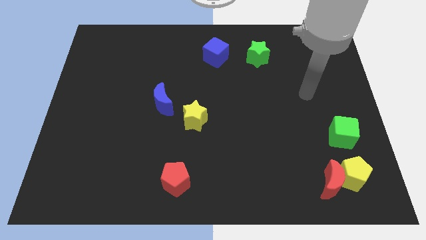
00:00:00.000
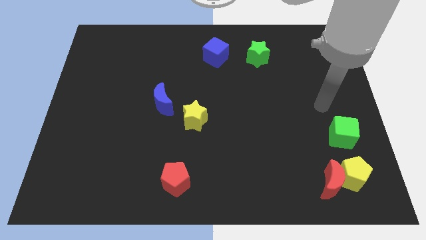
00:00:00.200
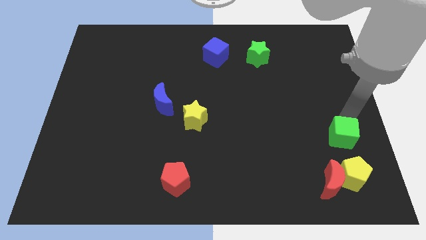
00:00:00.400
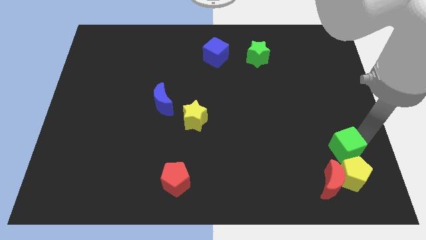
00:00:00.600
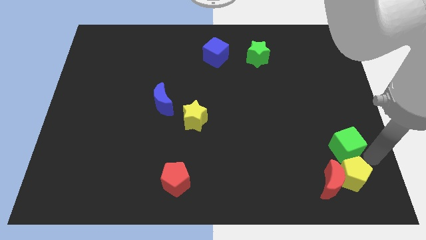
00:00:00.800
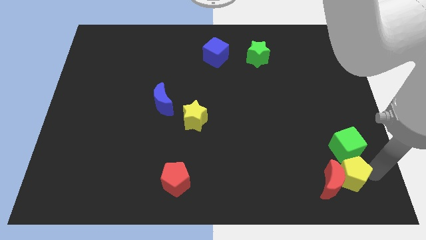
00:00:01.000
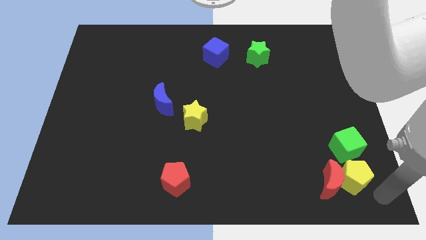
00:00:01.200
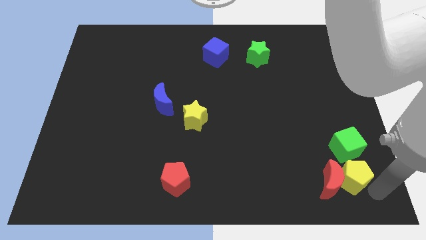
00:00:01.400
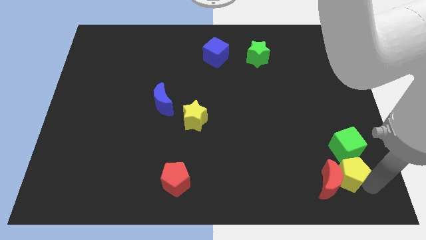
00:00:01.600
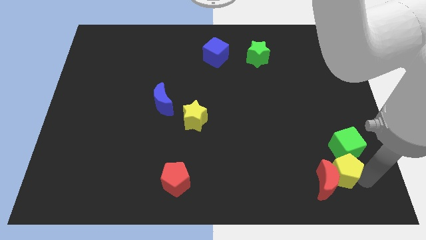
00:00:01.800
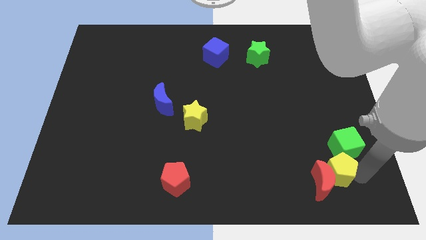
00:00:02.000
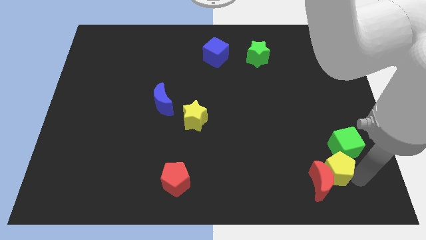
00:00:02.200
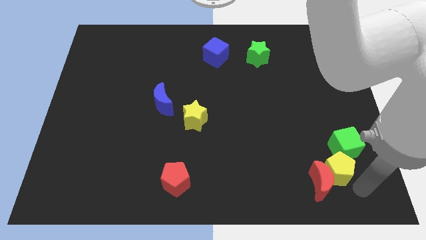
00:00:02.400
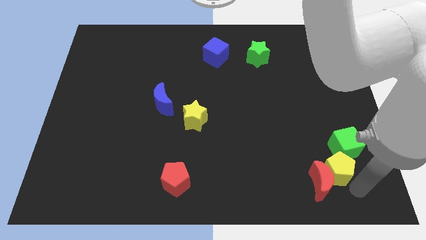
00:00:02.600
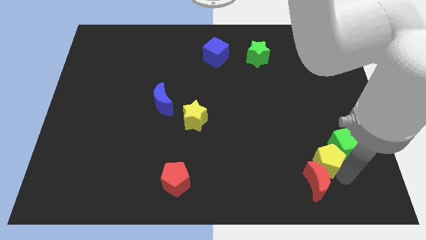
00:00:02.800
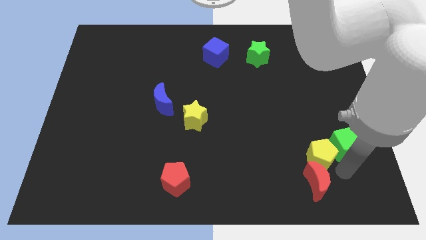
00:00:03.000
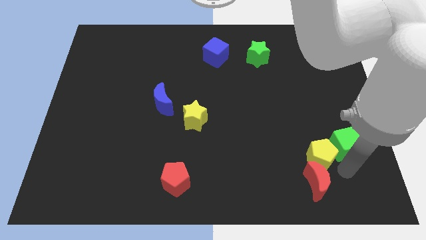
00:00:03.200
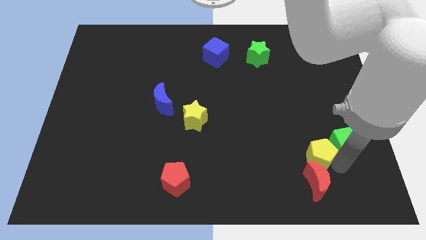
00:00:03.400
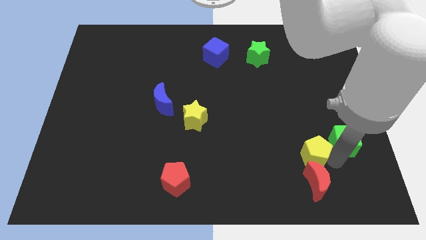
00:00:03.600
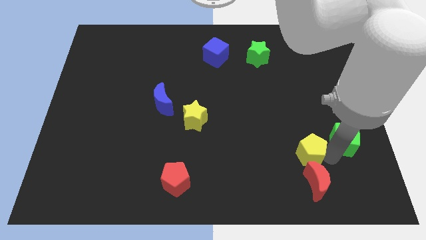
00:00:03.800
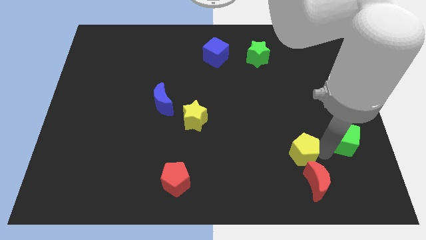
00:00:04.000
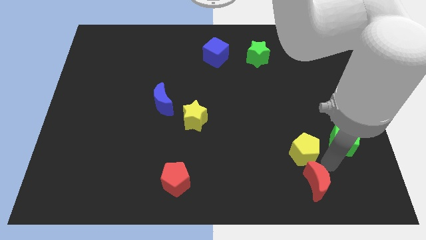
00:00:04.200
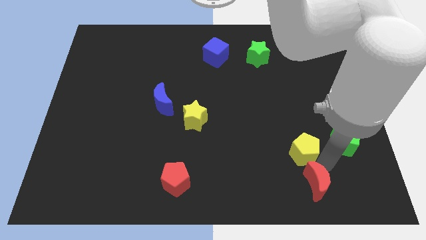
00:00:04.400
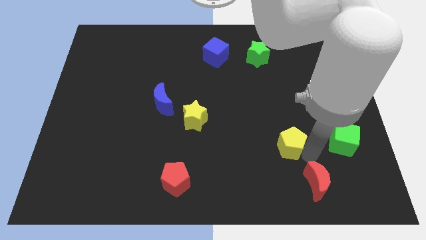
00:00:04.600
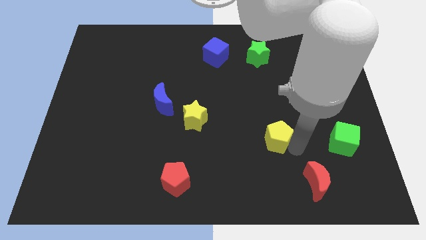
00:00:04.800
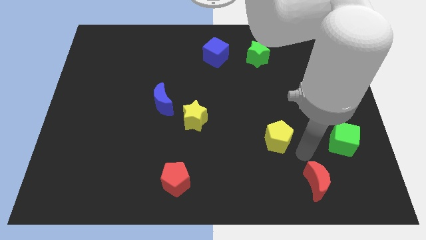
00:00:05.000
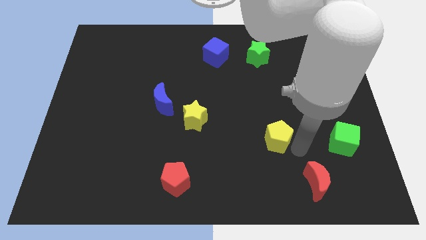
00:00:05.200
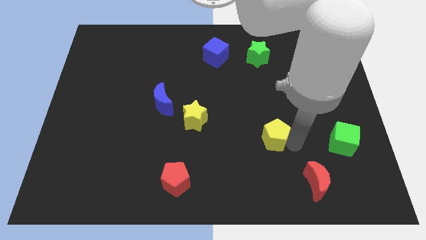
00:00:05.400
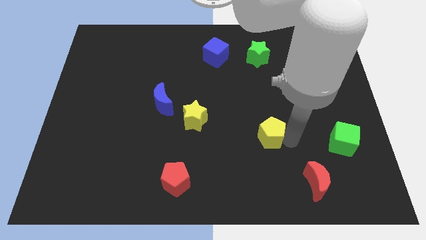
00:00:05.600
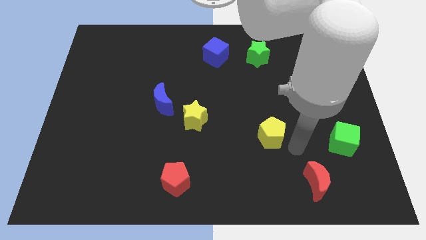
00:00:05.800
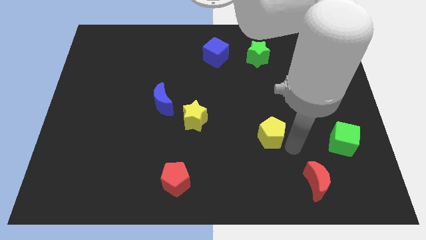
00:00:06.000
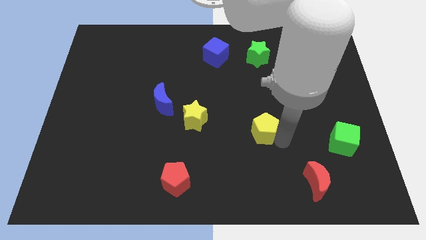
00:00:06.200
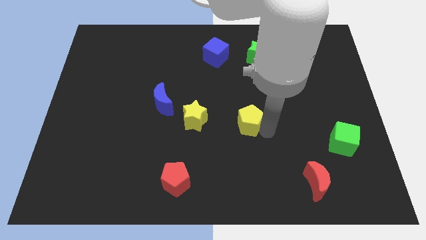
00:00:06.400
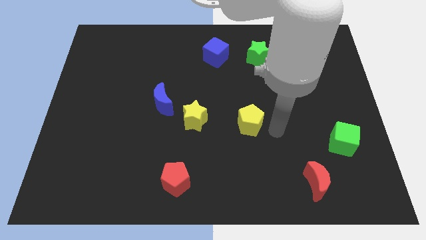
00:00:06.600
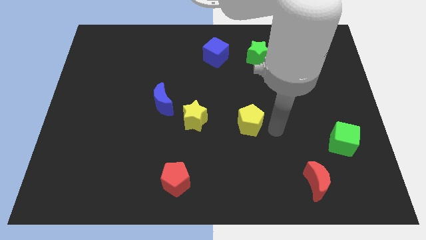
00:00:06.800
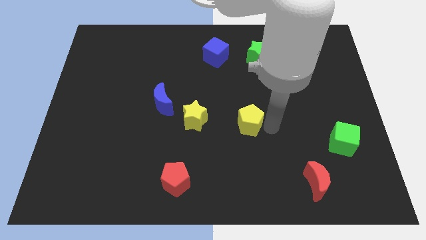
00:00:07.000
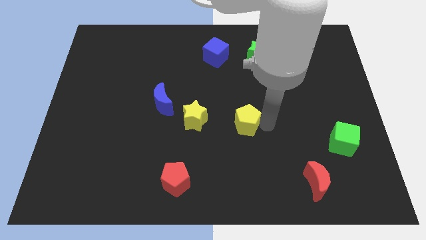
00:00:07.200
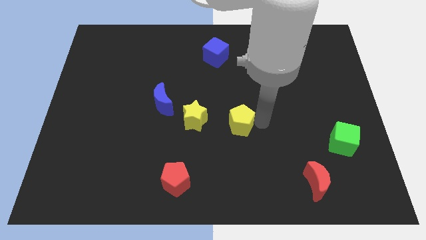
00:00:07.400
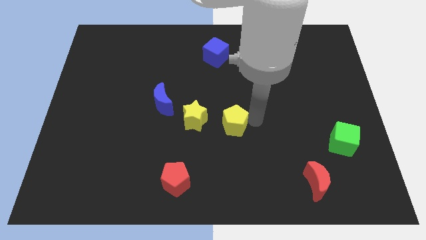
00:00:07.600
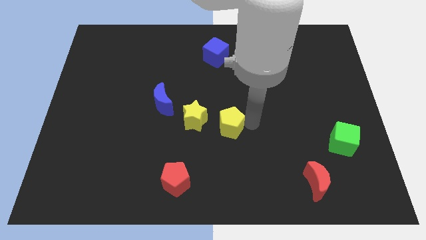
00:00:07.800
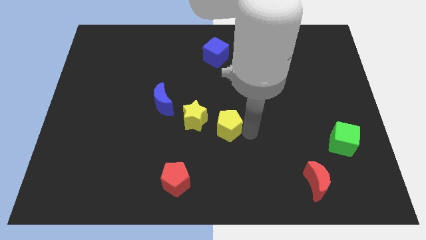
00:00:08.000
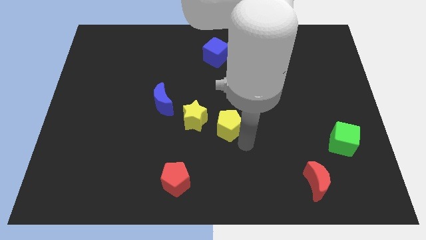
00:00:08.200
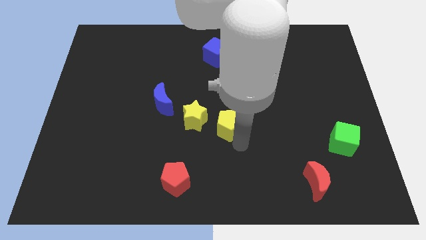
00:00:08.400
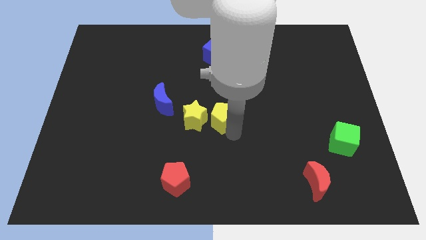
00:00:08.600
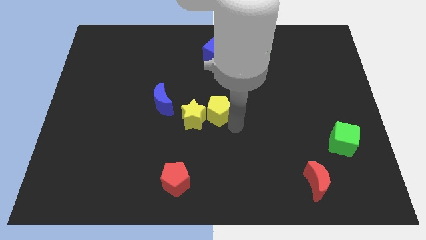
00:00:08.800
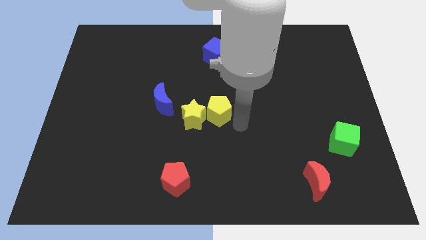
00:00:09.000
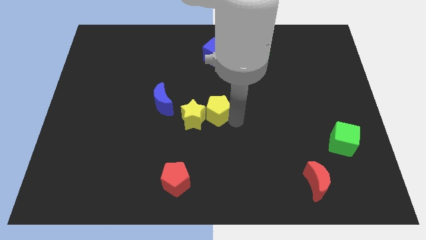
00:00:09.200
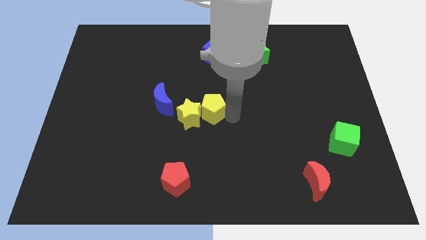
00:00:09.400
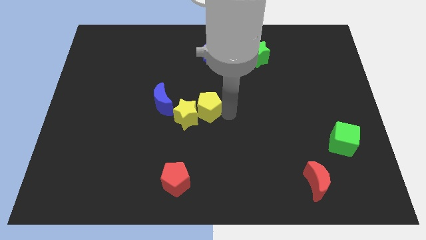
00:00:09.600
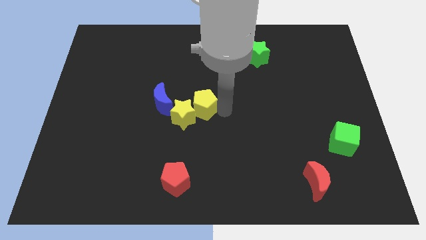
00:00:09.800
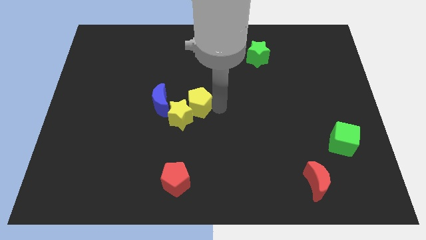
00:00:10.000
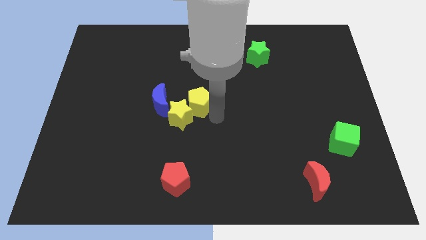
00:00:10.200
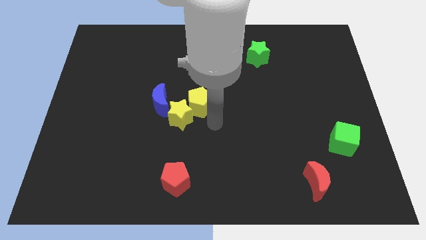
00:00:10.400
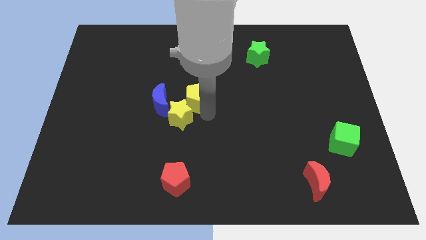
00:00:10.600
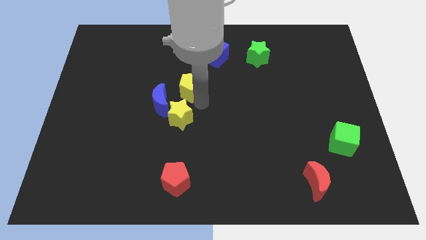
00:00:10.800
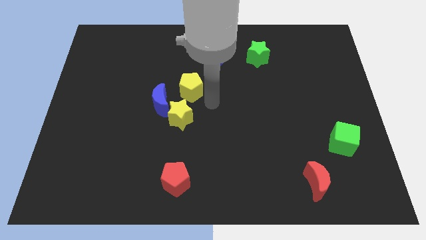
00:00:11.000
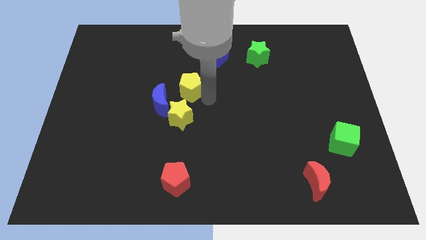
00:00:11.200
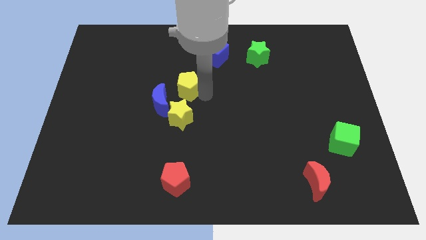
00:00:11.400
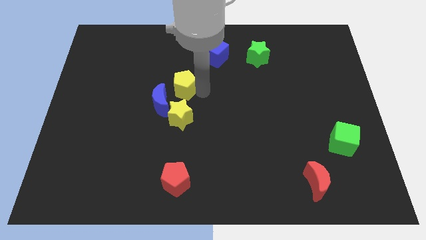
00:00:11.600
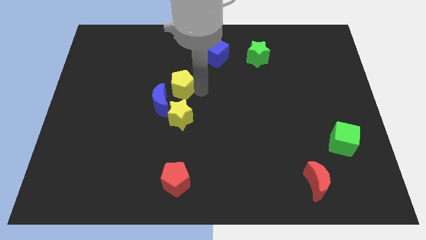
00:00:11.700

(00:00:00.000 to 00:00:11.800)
put the yellow pentagon to the top of the blue moon

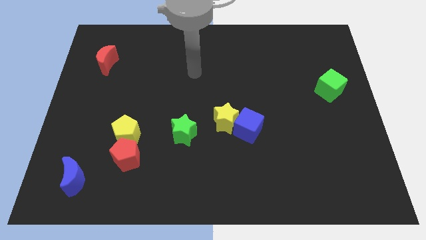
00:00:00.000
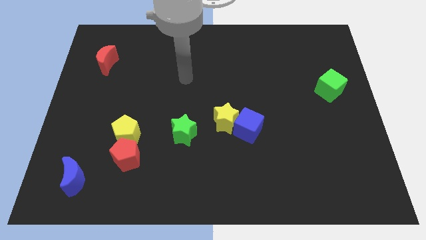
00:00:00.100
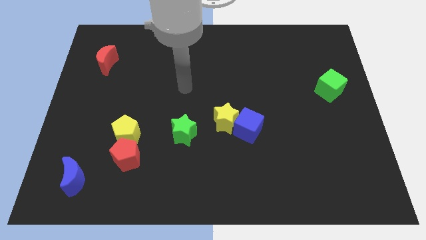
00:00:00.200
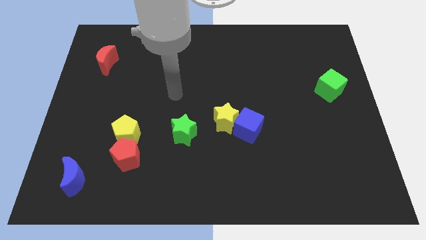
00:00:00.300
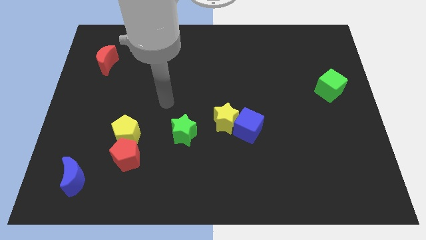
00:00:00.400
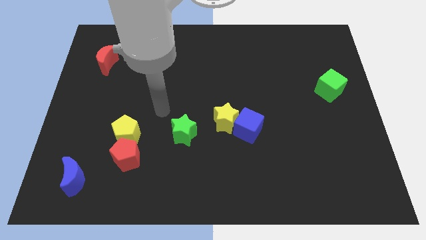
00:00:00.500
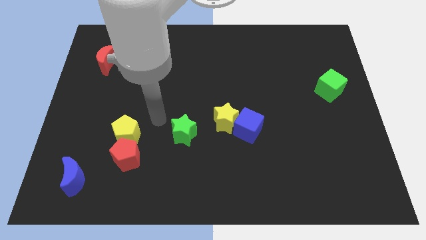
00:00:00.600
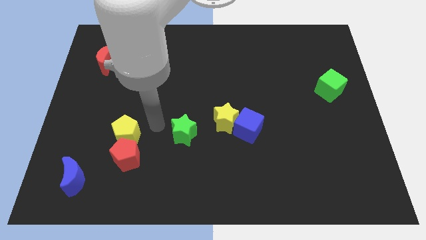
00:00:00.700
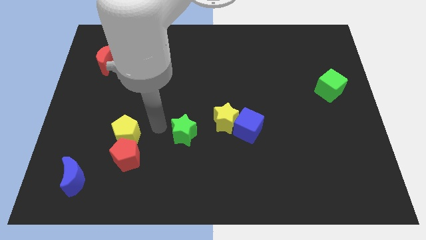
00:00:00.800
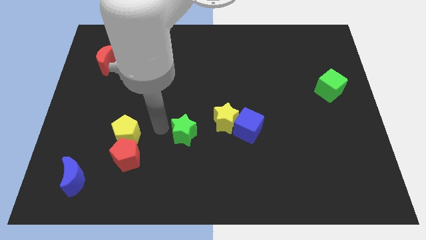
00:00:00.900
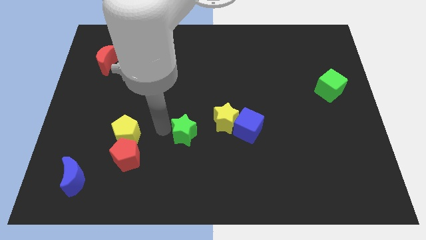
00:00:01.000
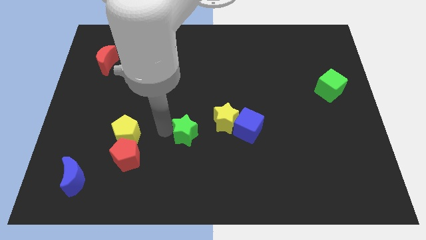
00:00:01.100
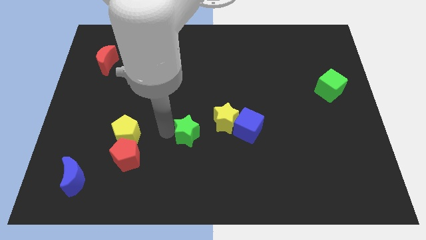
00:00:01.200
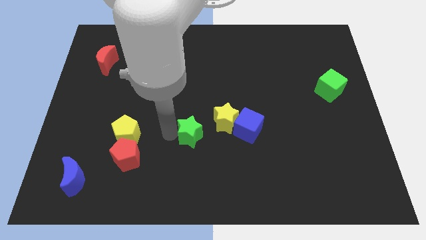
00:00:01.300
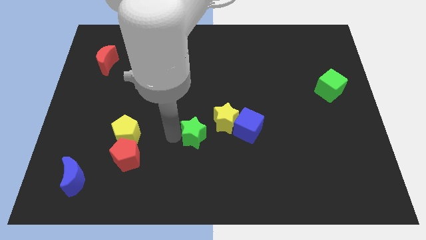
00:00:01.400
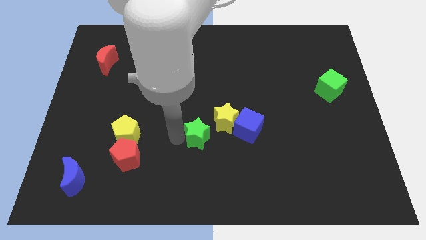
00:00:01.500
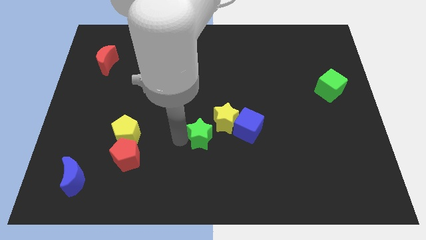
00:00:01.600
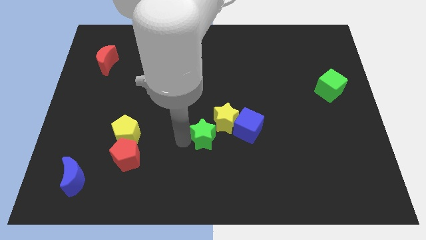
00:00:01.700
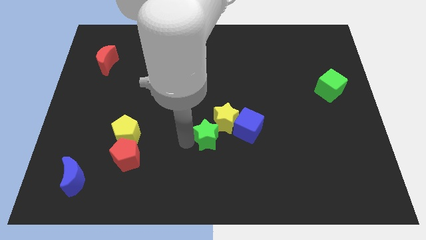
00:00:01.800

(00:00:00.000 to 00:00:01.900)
slide the green star to the bottom left of the blue cube
